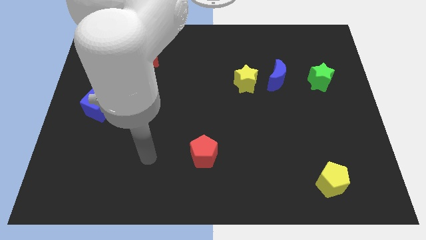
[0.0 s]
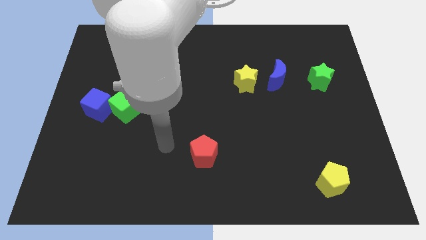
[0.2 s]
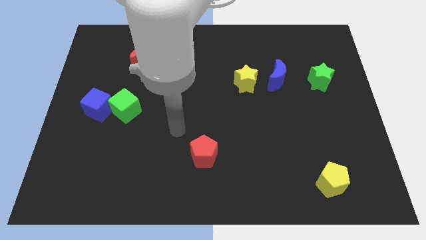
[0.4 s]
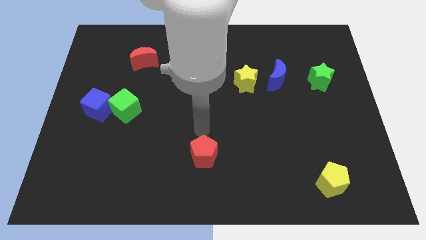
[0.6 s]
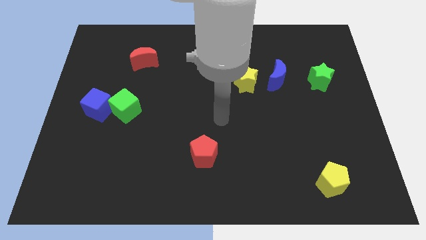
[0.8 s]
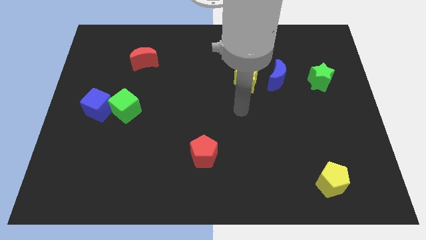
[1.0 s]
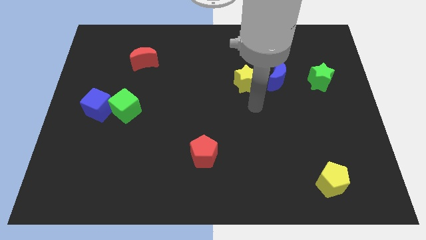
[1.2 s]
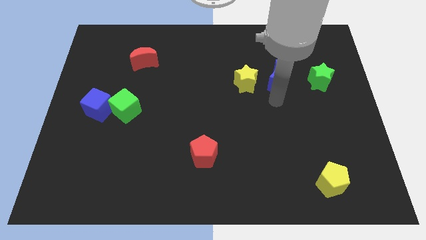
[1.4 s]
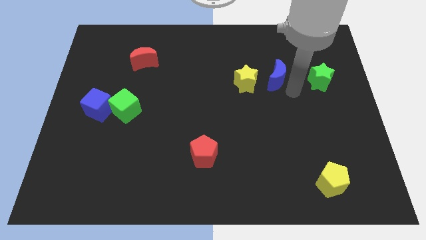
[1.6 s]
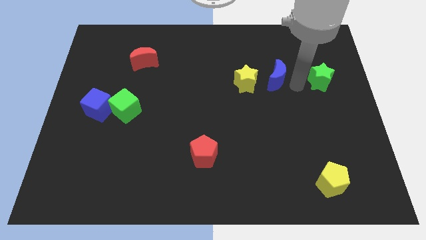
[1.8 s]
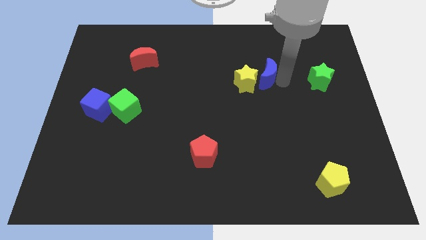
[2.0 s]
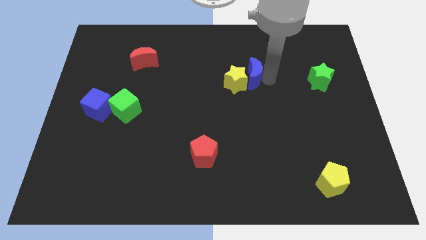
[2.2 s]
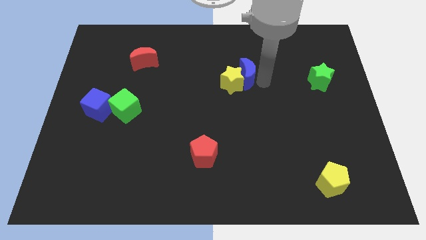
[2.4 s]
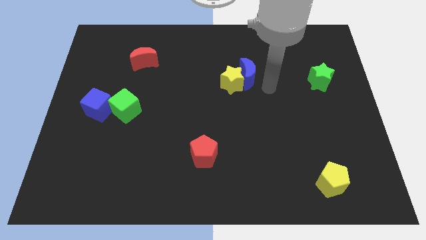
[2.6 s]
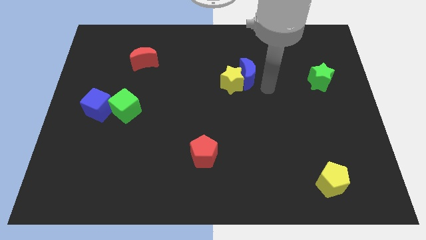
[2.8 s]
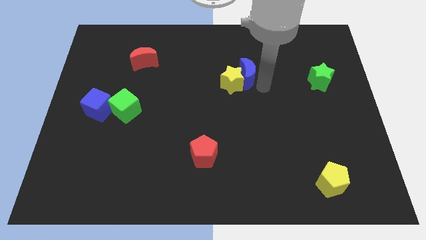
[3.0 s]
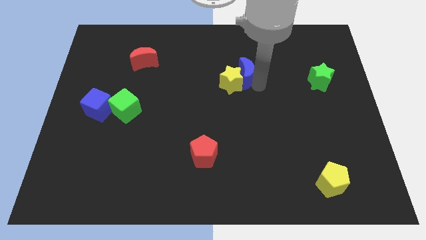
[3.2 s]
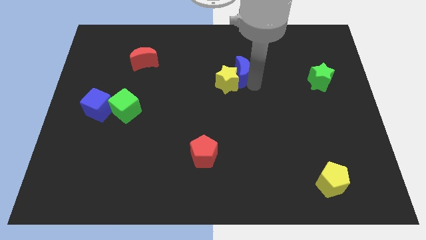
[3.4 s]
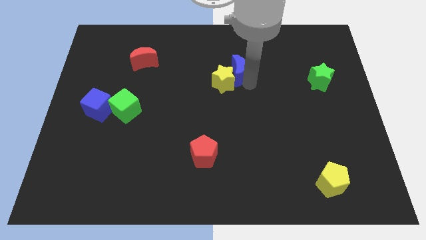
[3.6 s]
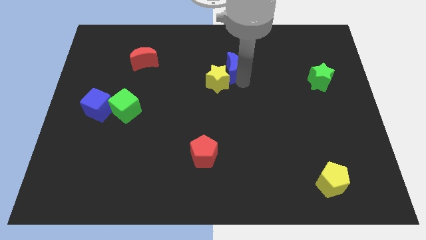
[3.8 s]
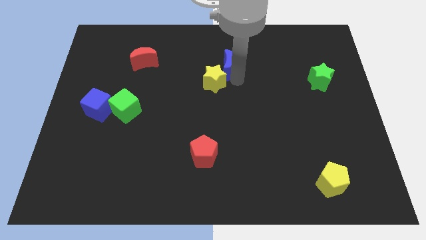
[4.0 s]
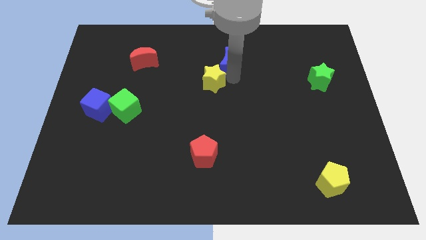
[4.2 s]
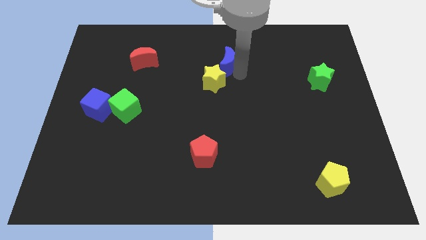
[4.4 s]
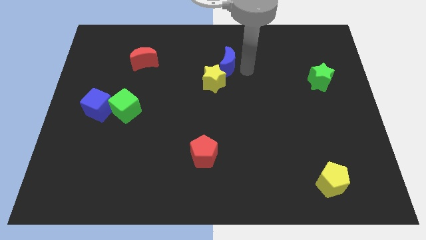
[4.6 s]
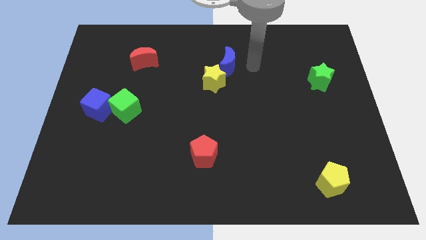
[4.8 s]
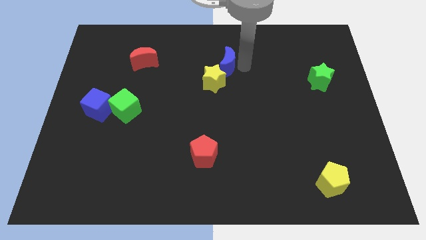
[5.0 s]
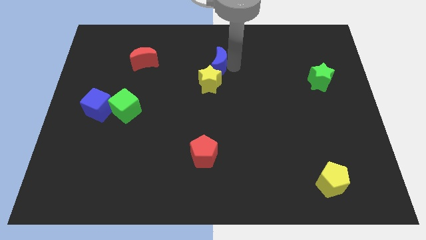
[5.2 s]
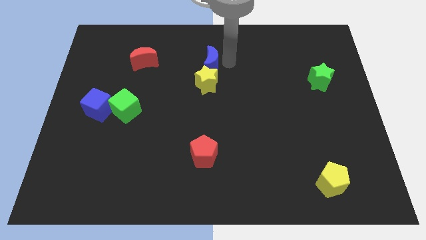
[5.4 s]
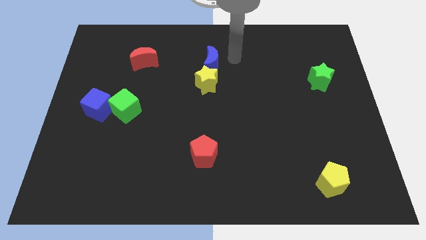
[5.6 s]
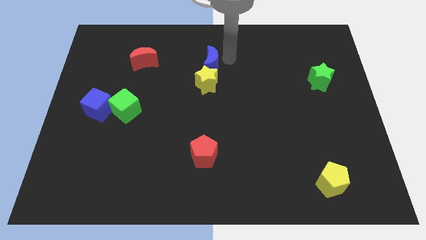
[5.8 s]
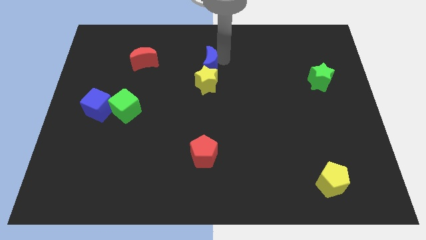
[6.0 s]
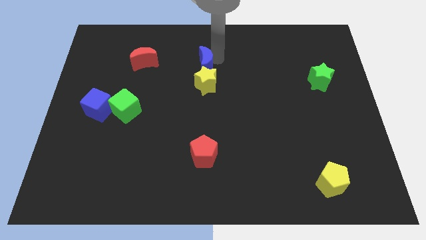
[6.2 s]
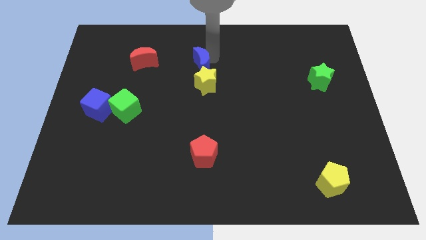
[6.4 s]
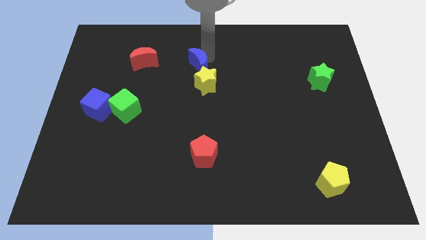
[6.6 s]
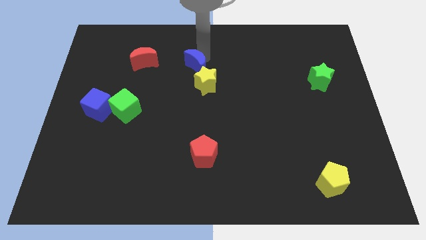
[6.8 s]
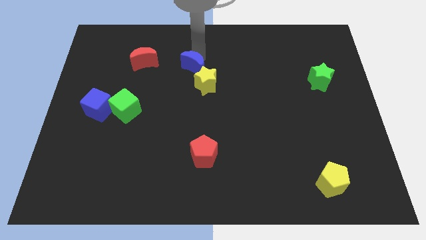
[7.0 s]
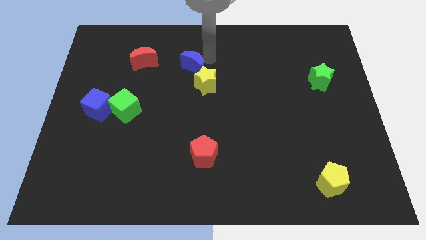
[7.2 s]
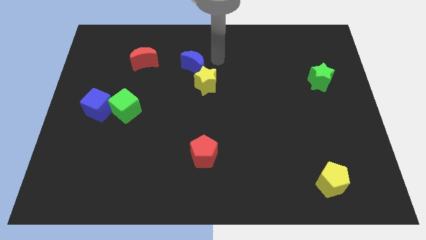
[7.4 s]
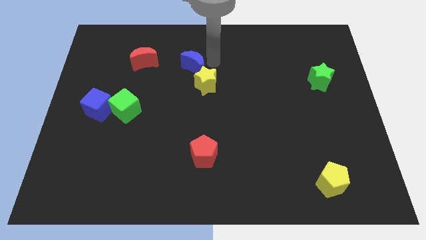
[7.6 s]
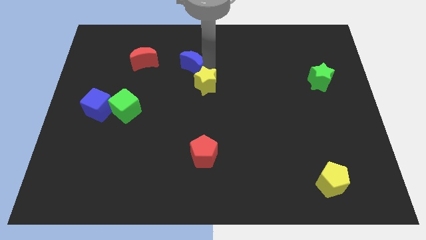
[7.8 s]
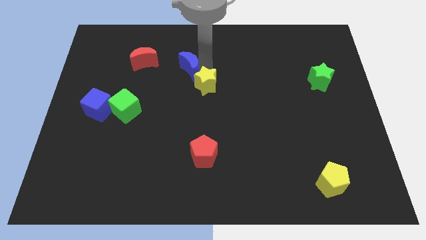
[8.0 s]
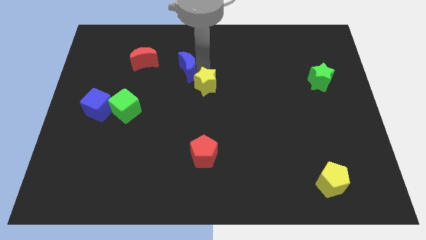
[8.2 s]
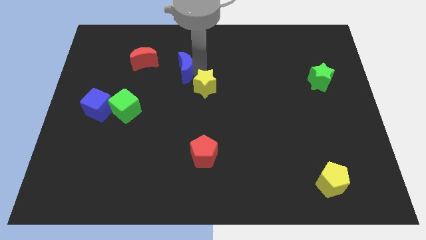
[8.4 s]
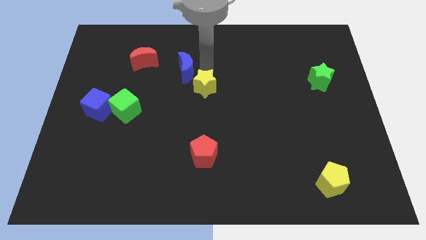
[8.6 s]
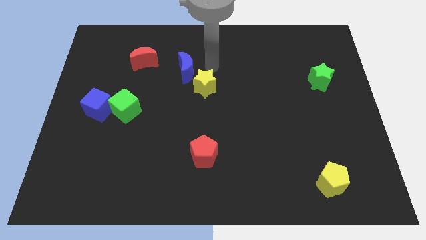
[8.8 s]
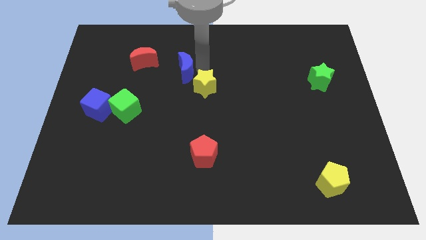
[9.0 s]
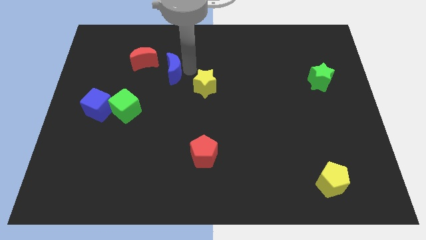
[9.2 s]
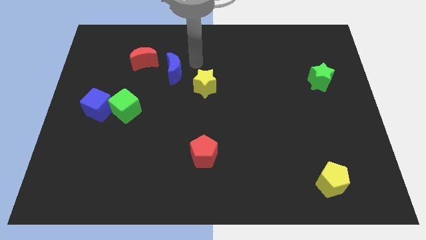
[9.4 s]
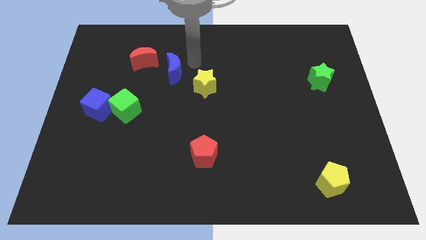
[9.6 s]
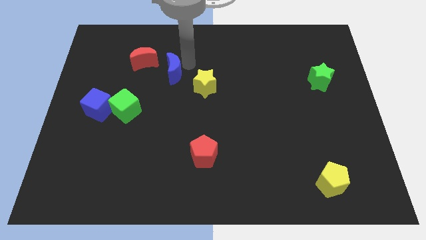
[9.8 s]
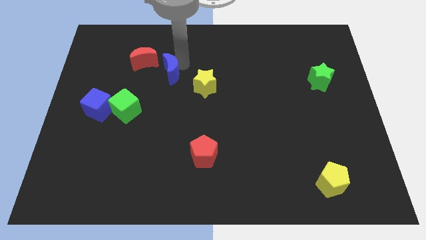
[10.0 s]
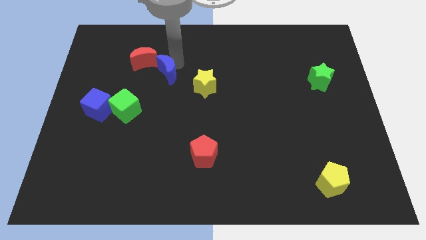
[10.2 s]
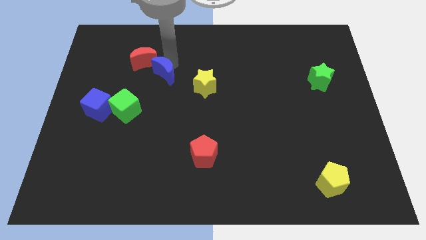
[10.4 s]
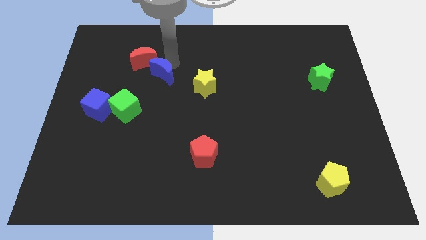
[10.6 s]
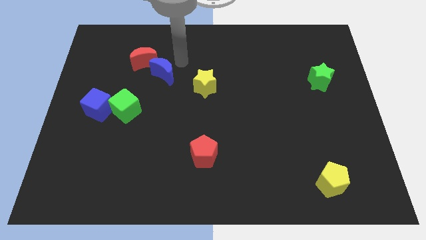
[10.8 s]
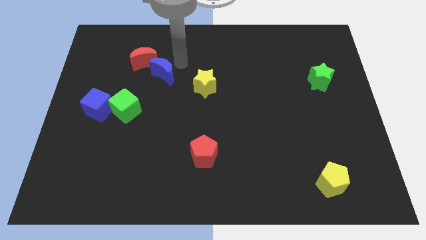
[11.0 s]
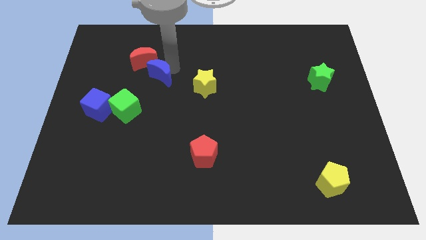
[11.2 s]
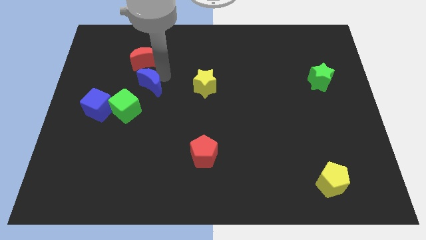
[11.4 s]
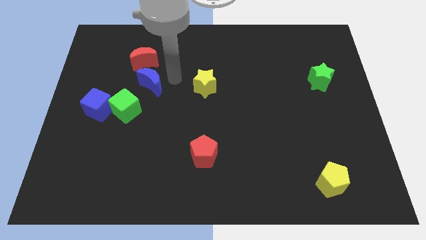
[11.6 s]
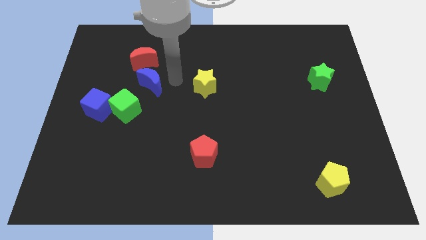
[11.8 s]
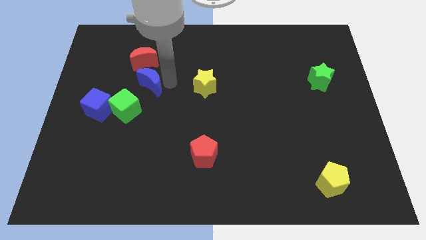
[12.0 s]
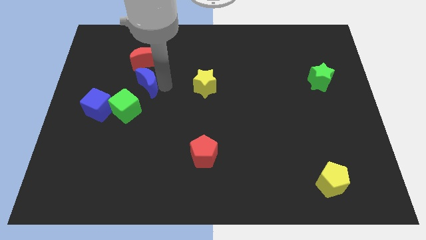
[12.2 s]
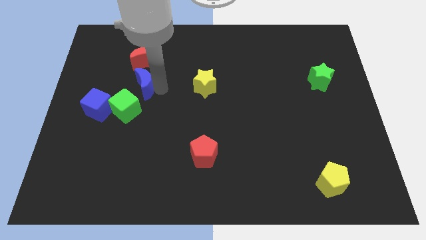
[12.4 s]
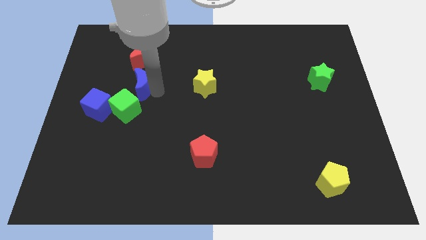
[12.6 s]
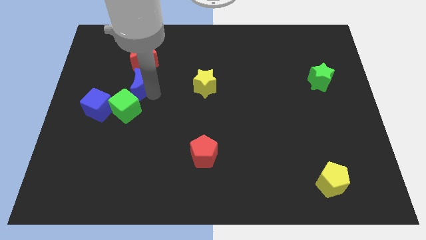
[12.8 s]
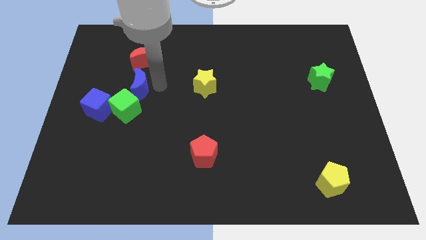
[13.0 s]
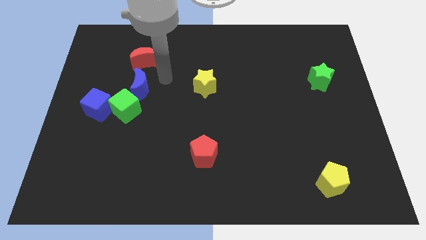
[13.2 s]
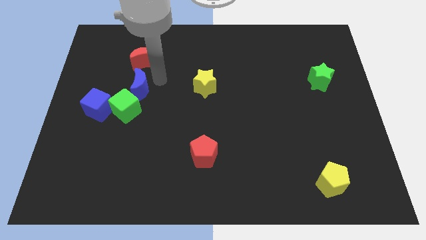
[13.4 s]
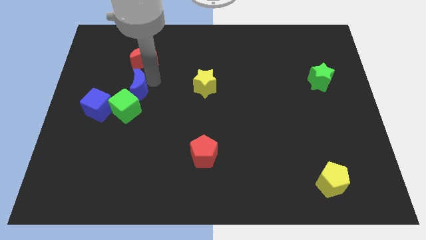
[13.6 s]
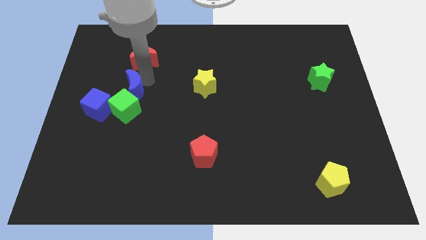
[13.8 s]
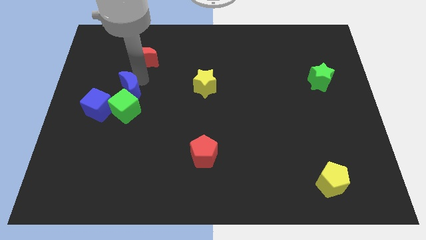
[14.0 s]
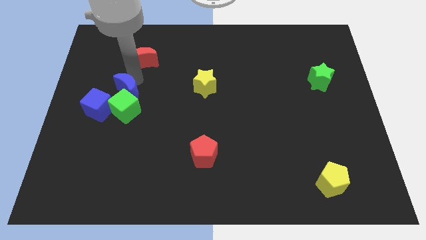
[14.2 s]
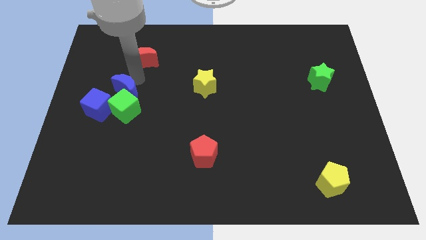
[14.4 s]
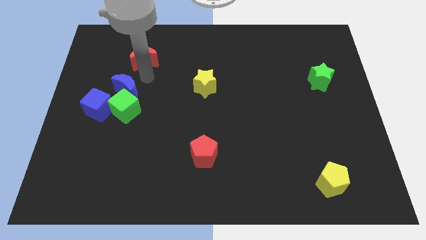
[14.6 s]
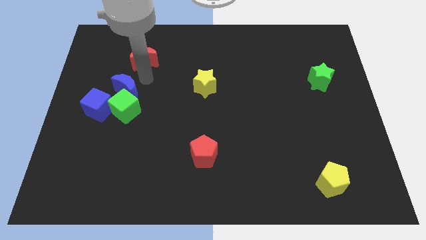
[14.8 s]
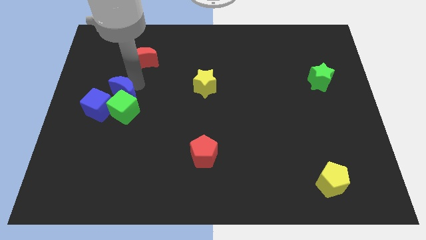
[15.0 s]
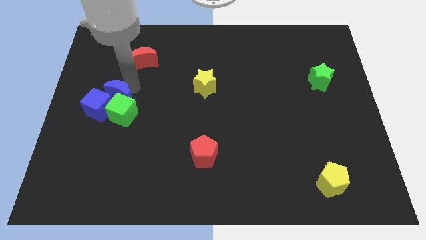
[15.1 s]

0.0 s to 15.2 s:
put the blue moon towards the blue cube
